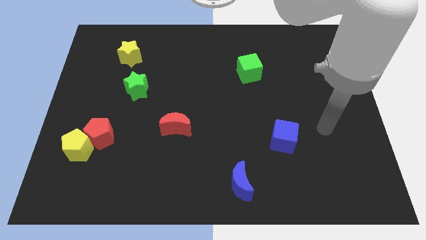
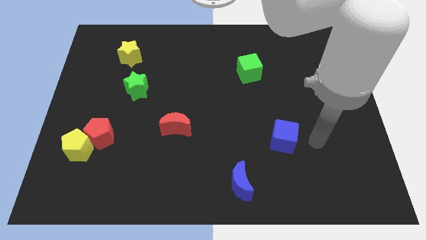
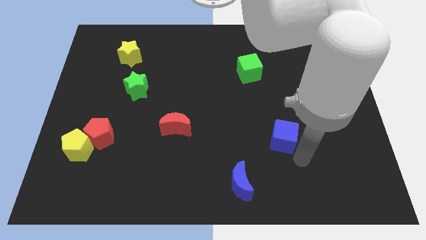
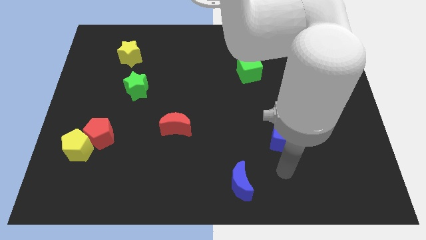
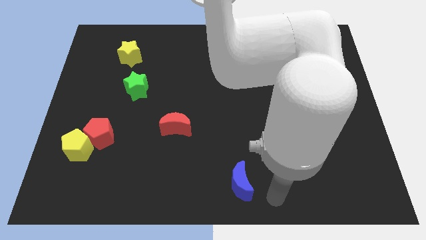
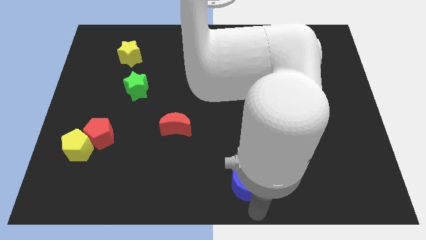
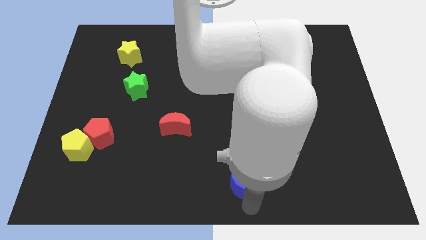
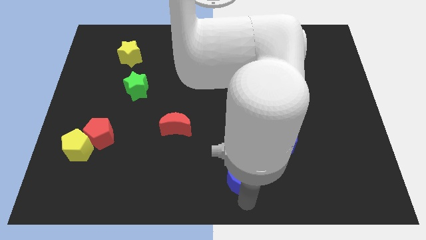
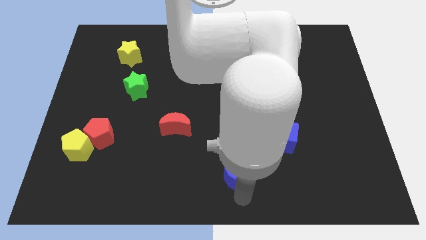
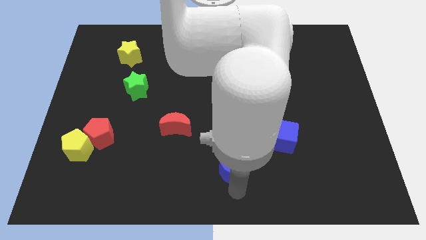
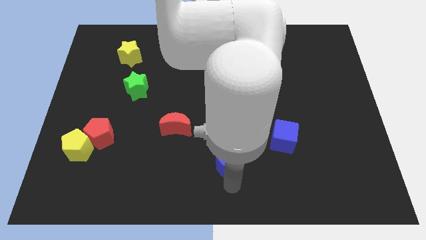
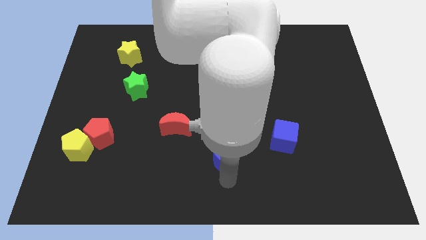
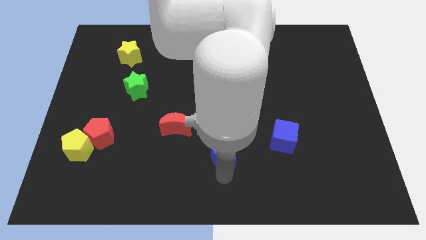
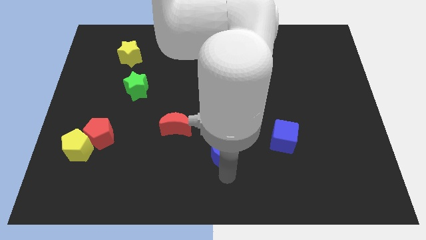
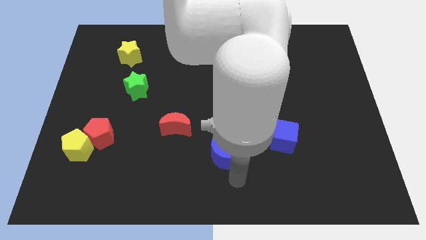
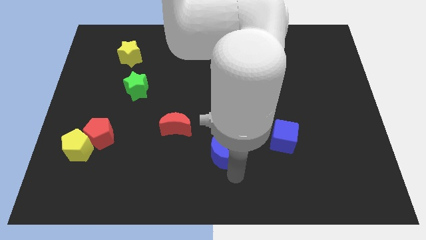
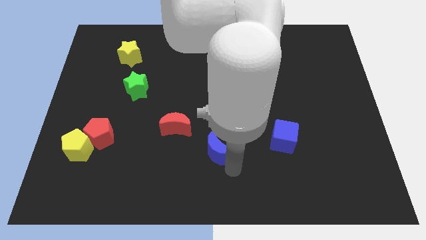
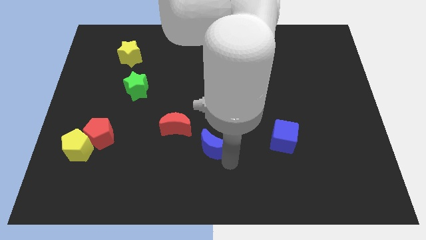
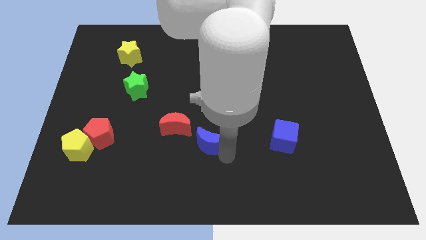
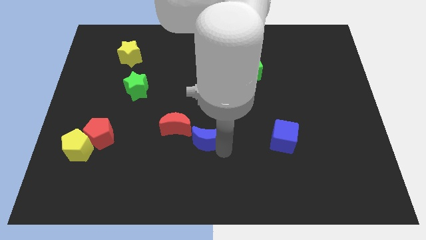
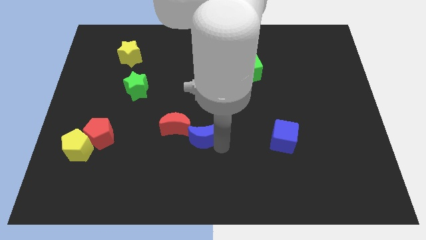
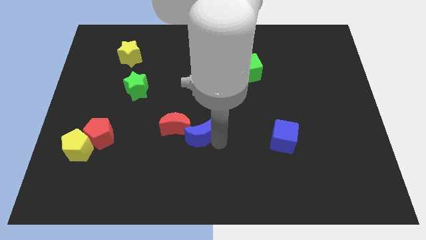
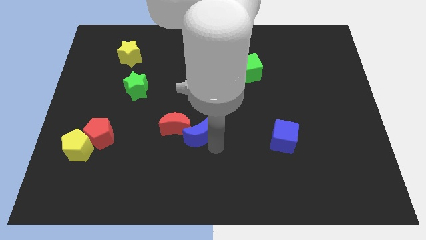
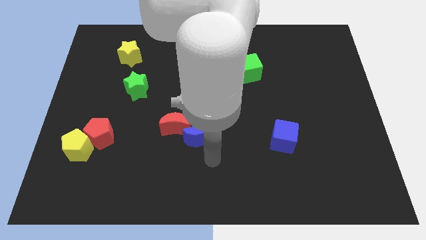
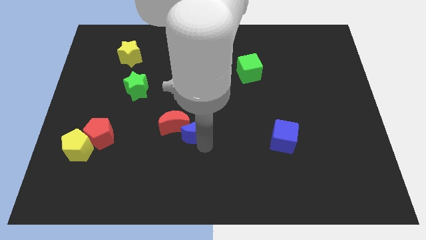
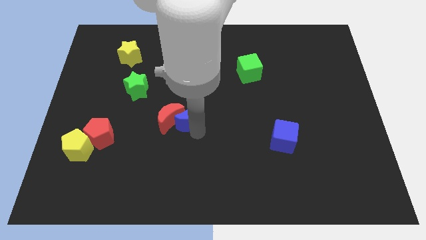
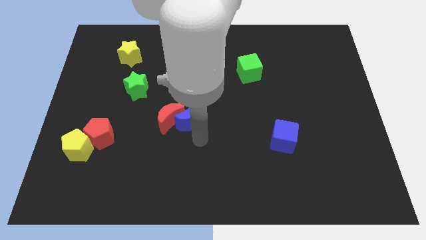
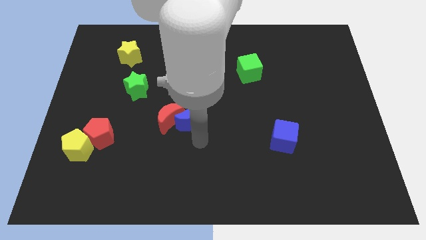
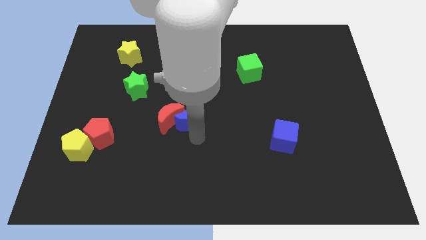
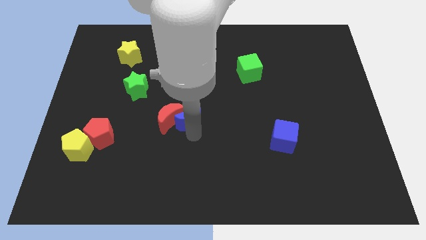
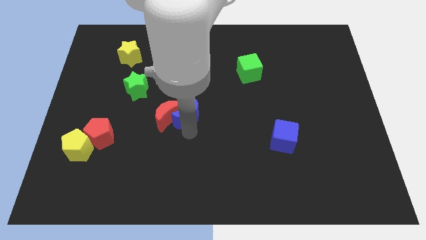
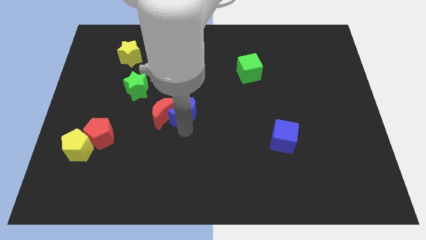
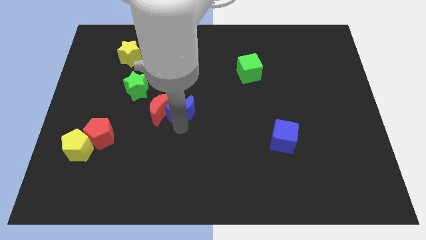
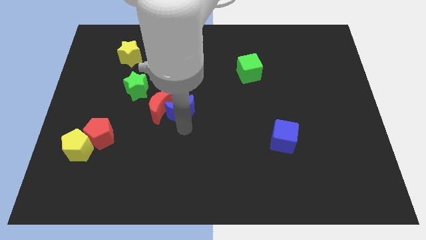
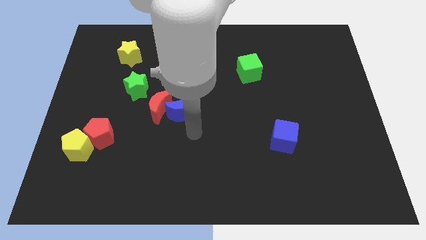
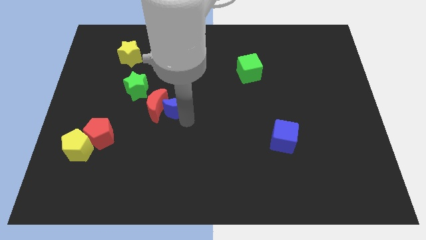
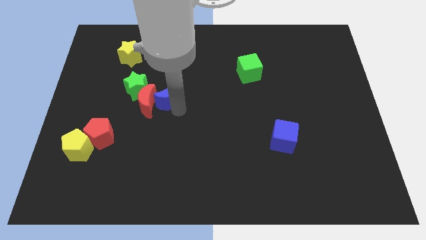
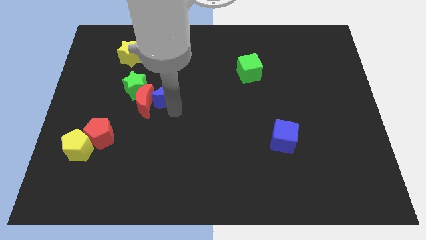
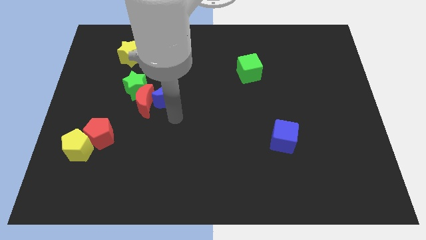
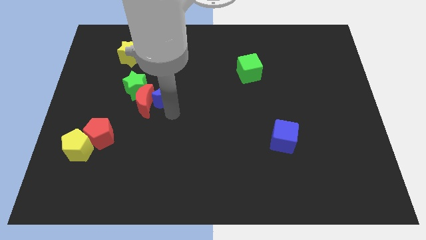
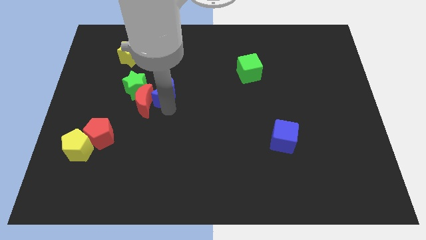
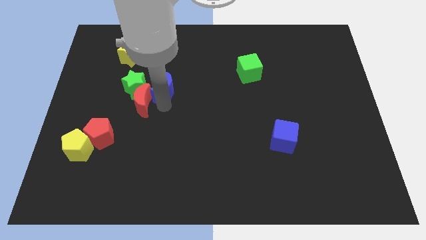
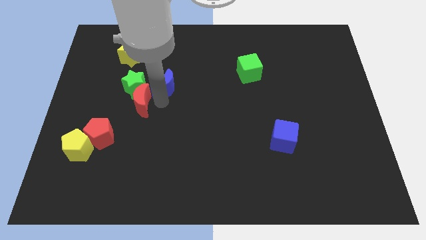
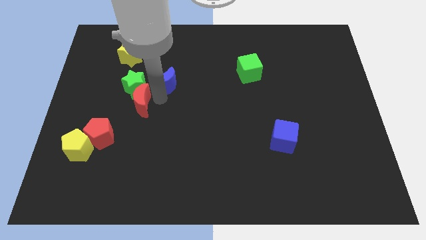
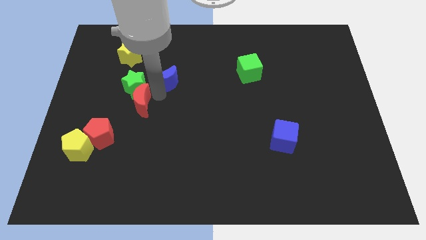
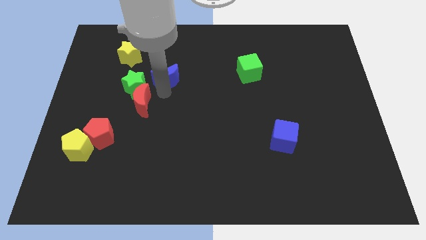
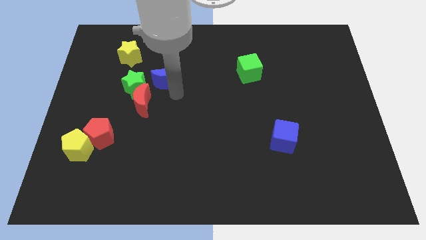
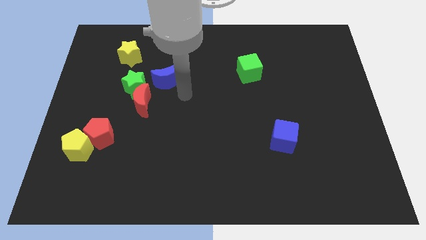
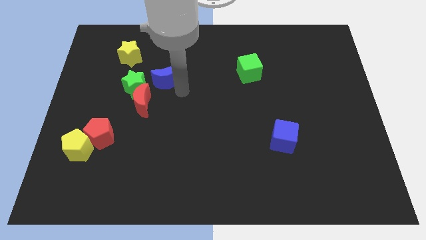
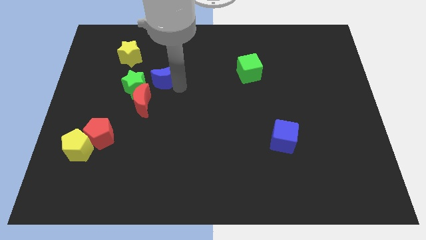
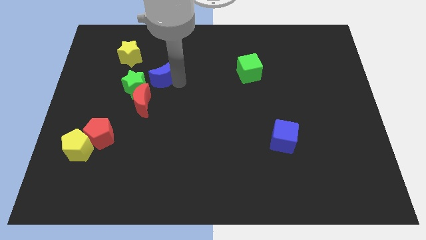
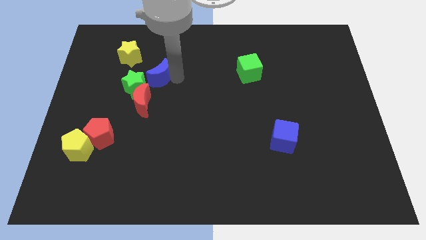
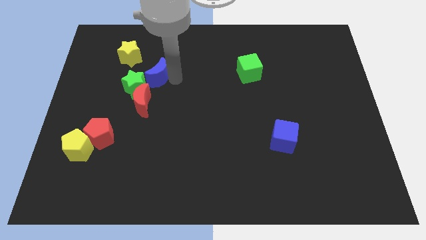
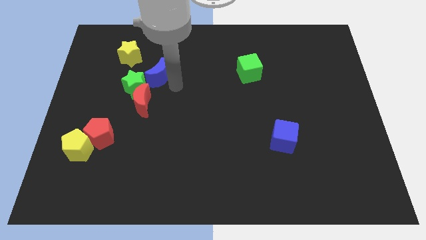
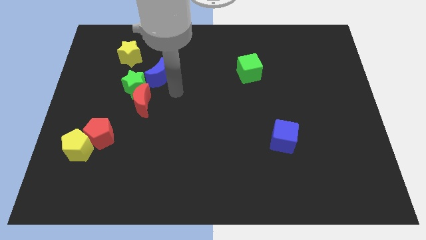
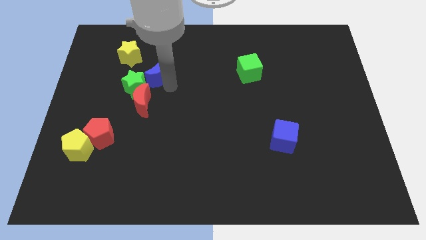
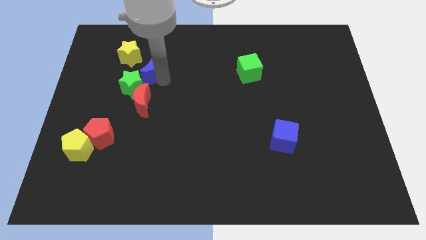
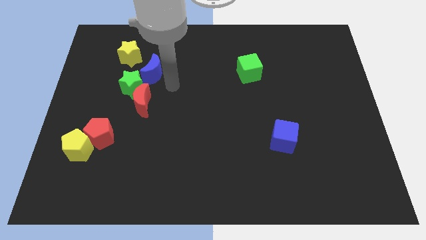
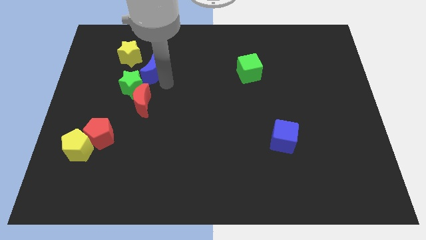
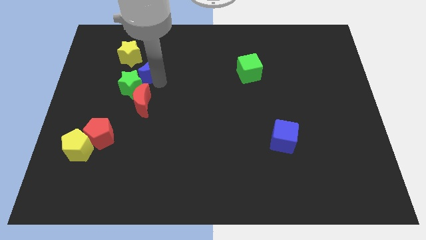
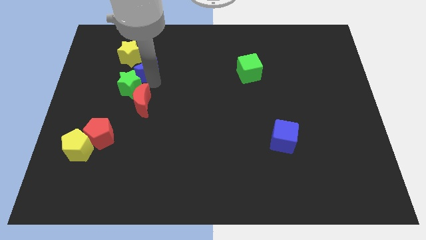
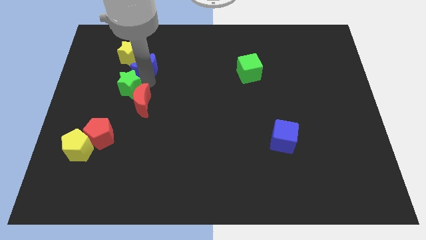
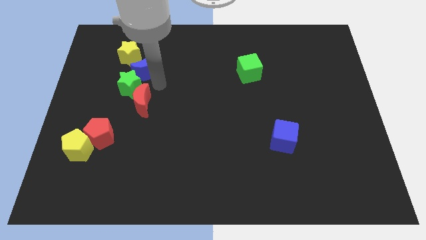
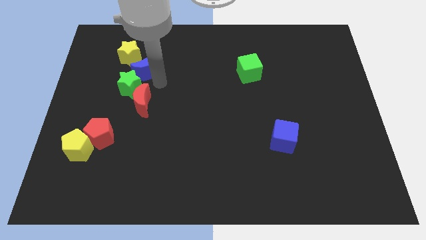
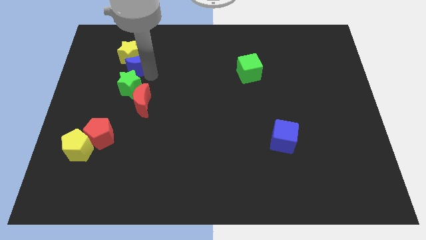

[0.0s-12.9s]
slide the blue moon towards the yellow star

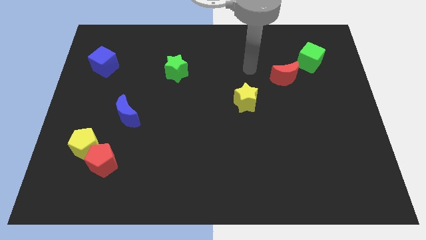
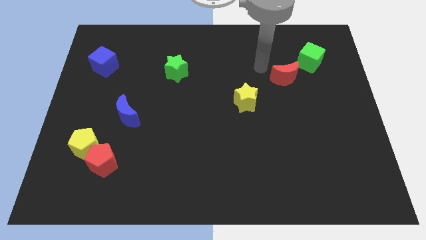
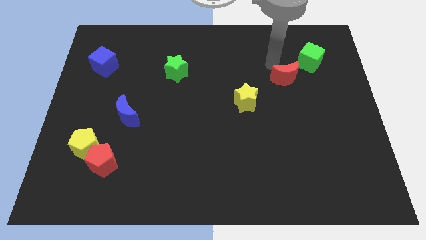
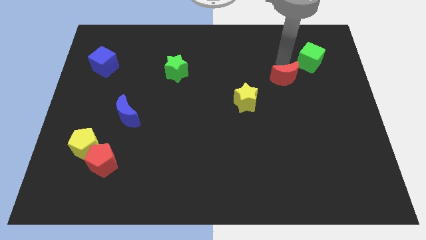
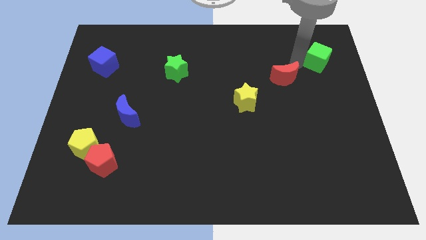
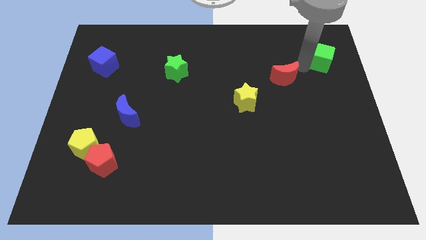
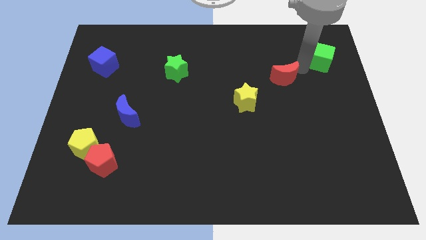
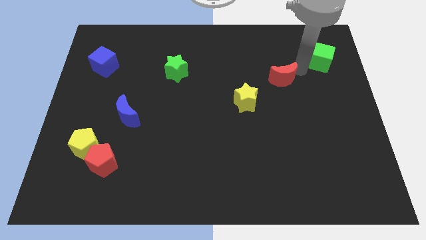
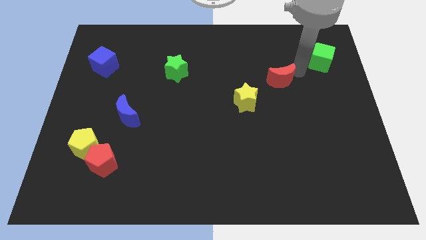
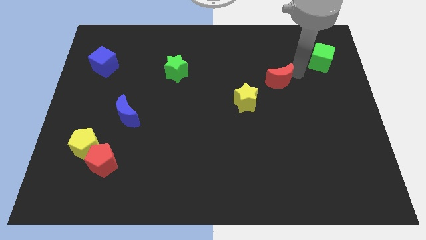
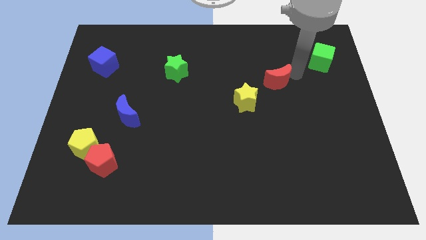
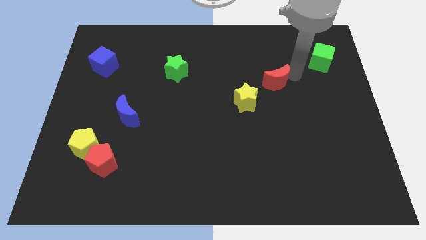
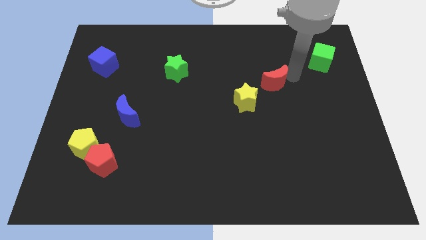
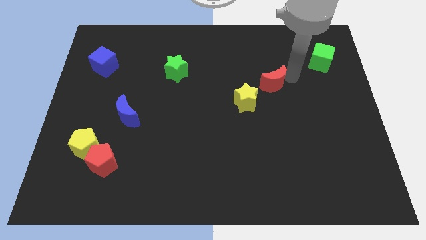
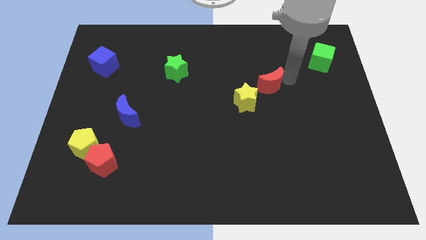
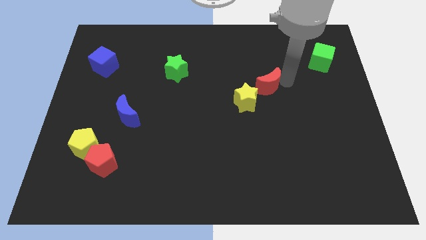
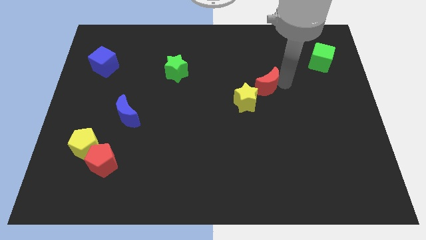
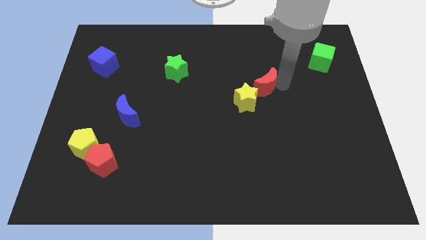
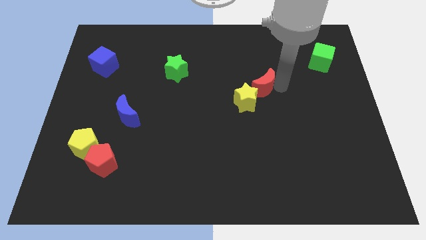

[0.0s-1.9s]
move the red moon towards the yellow star
